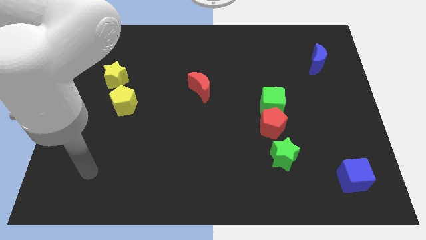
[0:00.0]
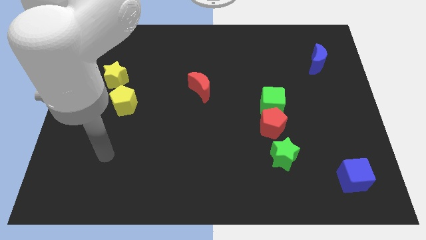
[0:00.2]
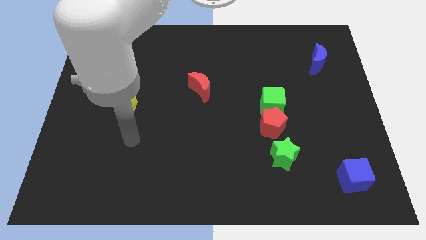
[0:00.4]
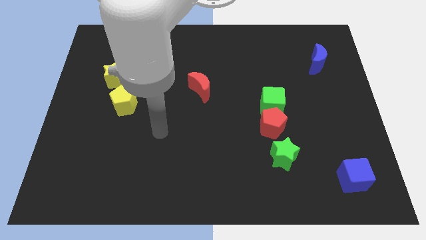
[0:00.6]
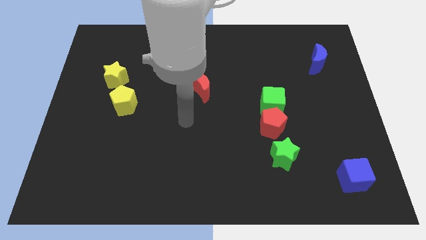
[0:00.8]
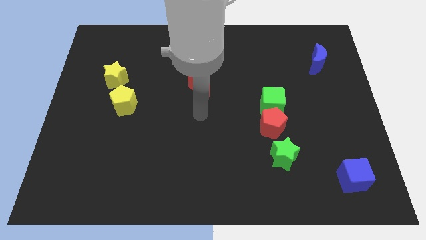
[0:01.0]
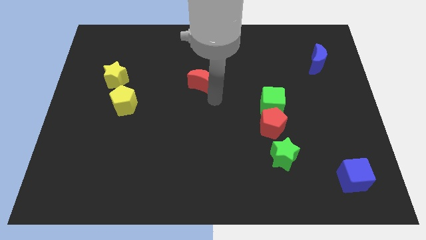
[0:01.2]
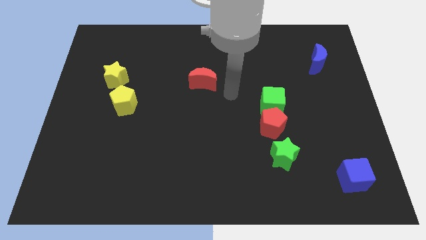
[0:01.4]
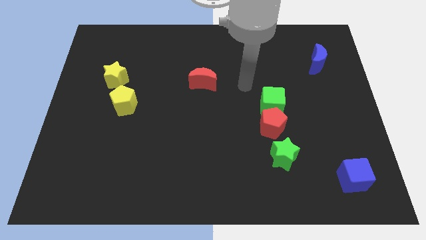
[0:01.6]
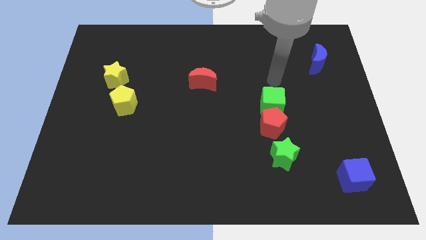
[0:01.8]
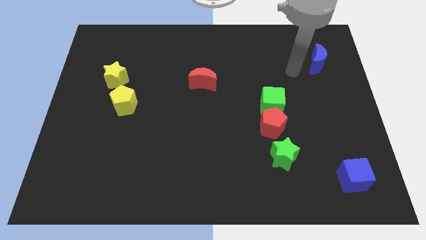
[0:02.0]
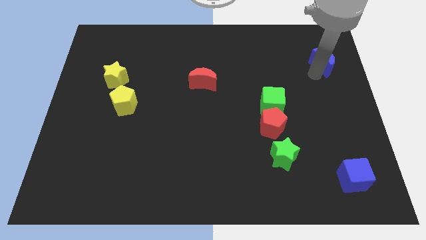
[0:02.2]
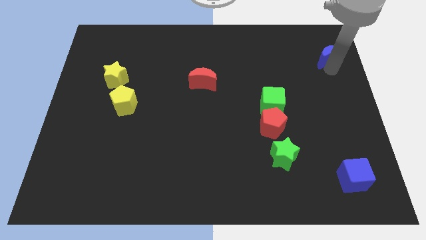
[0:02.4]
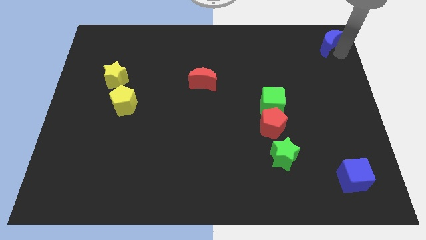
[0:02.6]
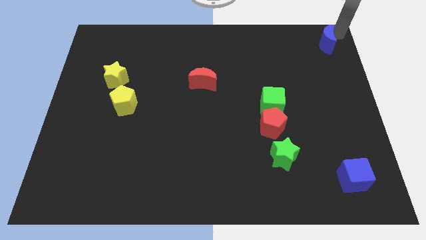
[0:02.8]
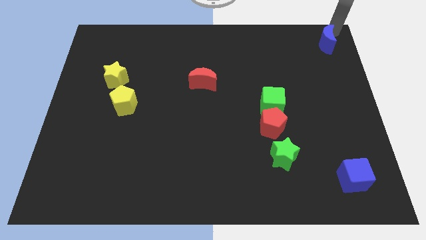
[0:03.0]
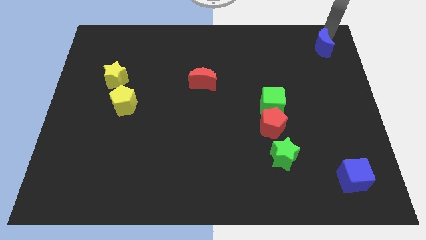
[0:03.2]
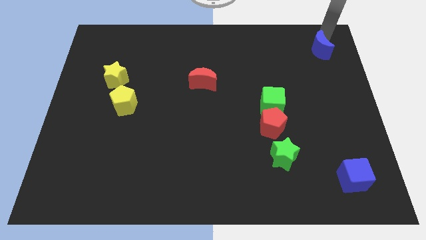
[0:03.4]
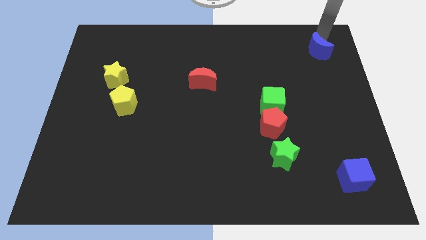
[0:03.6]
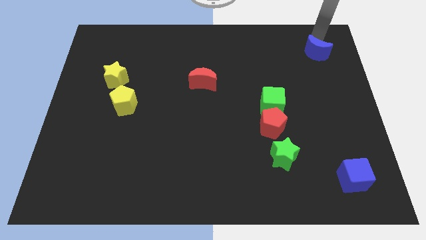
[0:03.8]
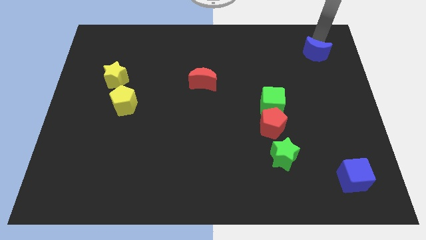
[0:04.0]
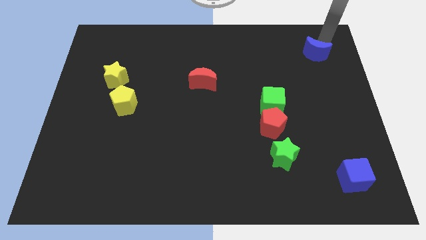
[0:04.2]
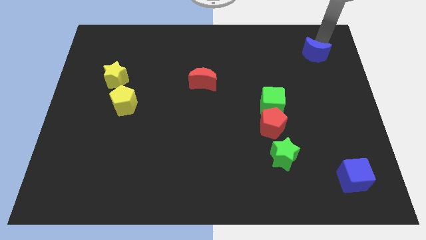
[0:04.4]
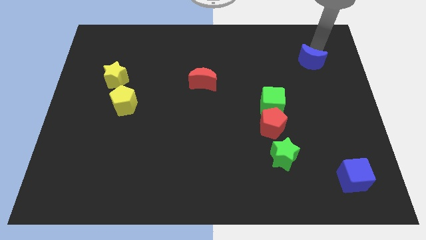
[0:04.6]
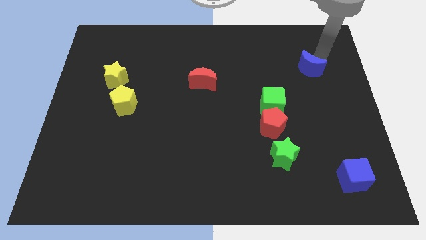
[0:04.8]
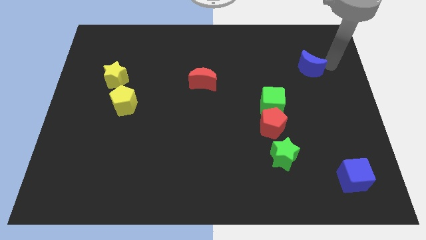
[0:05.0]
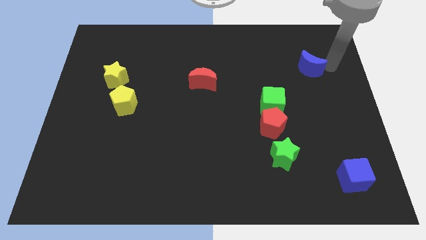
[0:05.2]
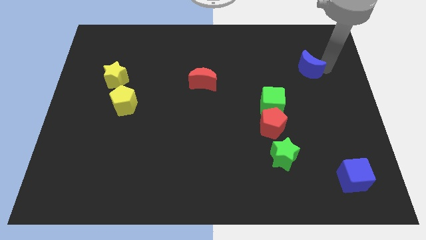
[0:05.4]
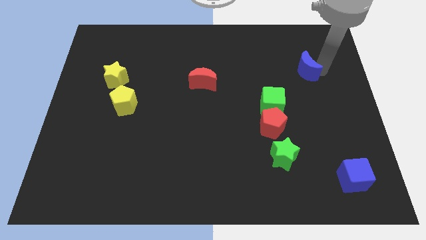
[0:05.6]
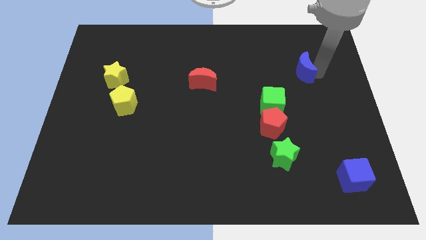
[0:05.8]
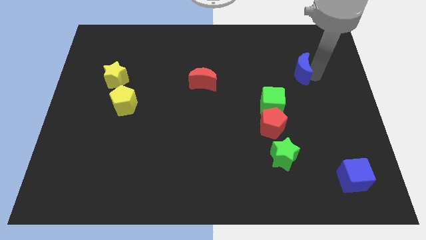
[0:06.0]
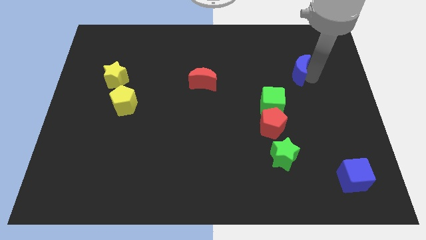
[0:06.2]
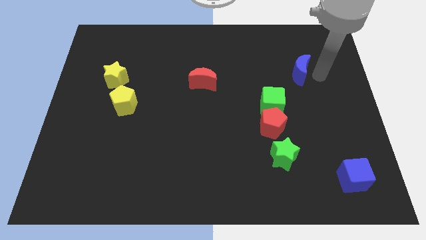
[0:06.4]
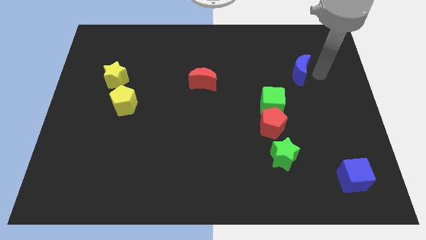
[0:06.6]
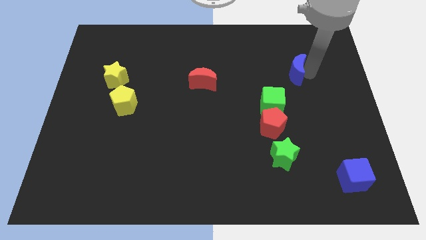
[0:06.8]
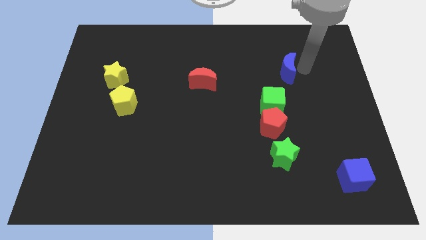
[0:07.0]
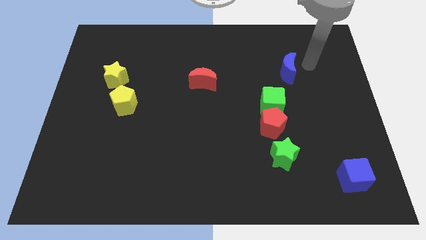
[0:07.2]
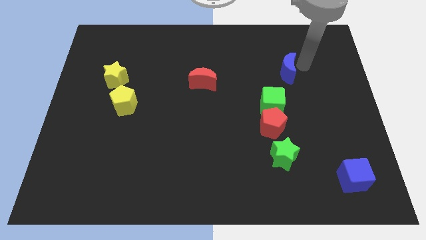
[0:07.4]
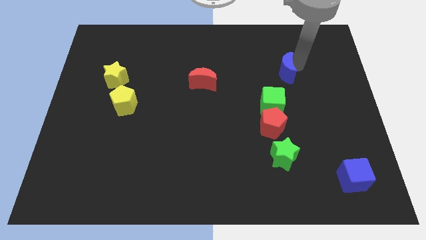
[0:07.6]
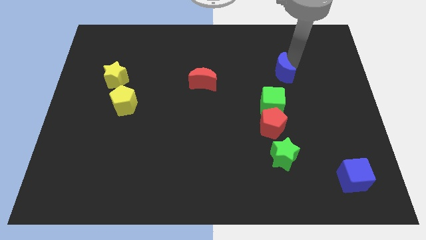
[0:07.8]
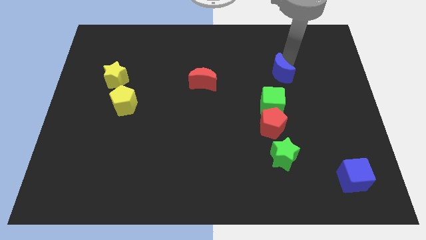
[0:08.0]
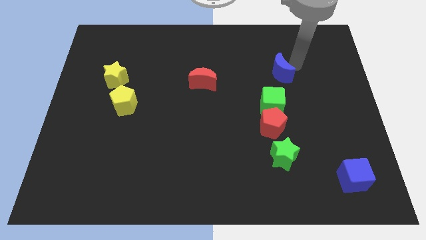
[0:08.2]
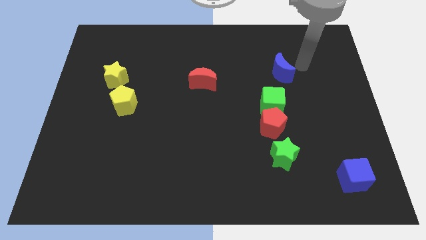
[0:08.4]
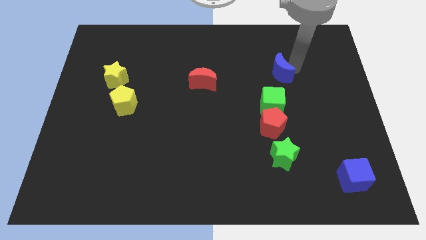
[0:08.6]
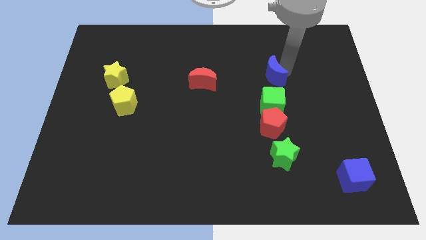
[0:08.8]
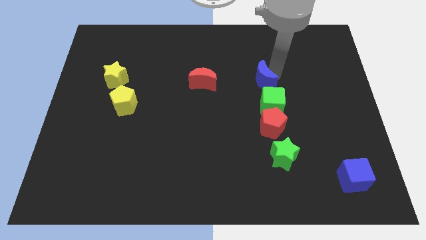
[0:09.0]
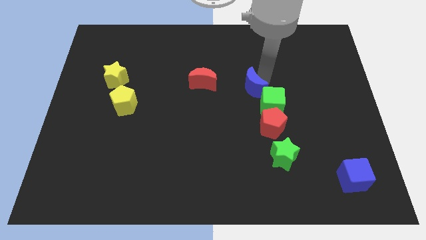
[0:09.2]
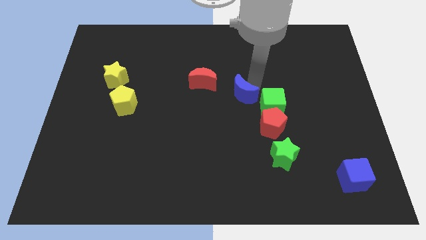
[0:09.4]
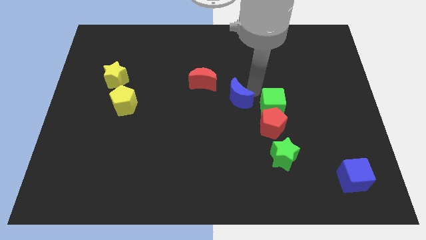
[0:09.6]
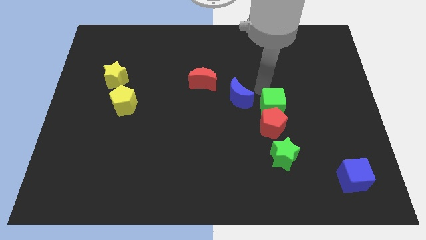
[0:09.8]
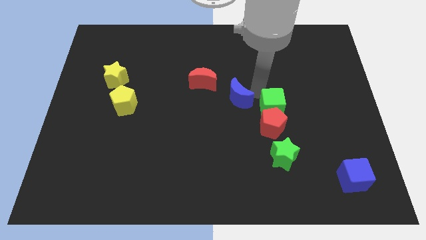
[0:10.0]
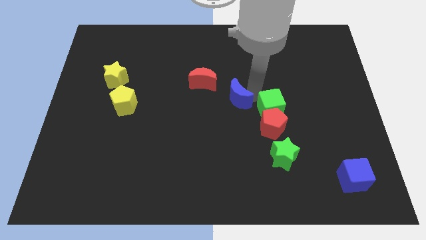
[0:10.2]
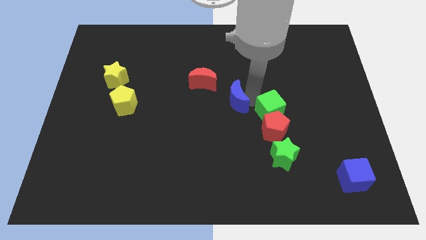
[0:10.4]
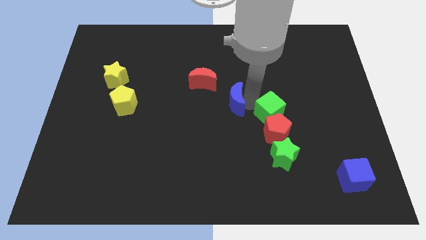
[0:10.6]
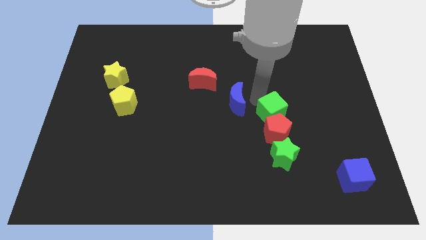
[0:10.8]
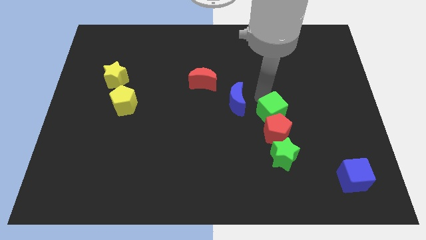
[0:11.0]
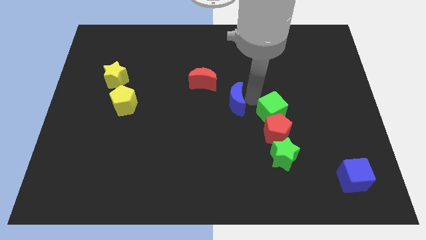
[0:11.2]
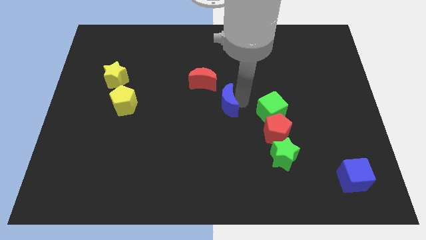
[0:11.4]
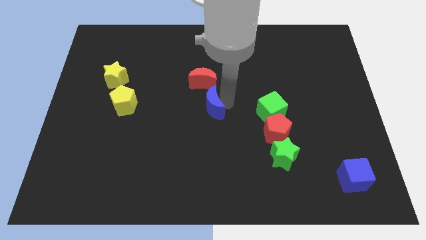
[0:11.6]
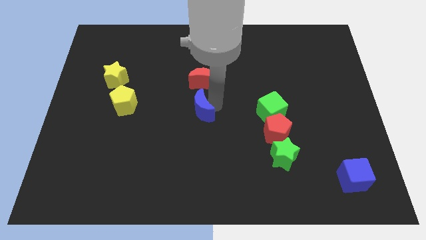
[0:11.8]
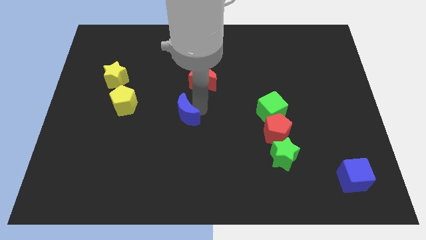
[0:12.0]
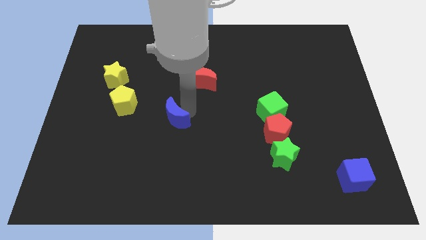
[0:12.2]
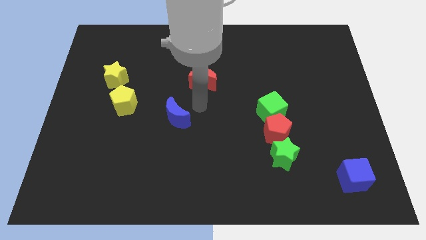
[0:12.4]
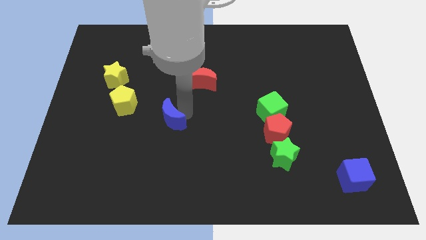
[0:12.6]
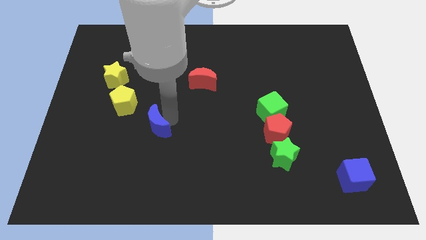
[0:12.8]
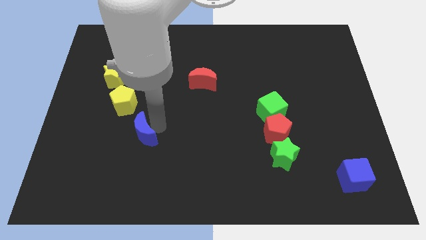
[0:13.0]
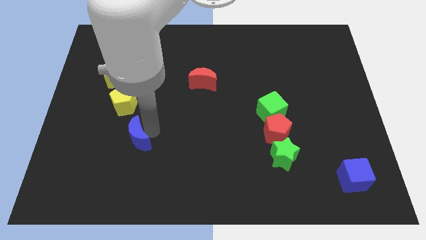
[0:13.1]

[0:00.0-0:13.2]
push the blue moon below the yellow pentagon
